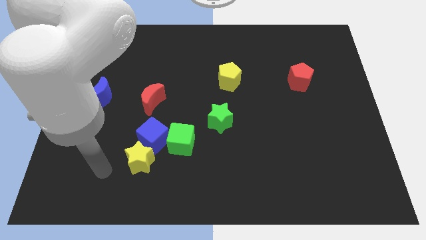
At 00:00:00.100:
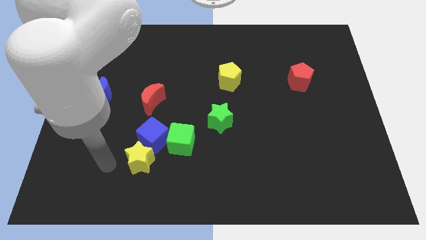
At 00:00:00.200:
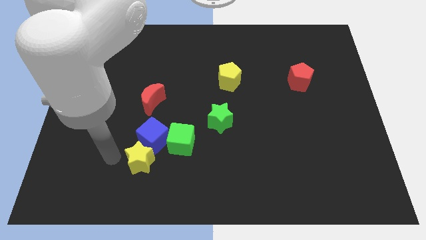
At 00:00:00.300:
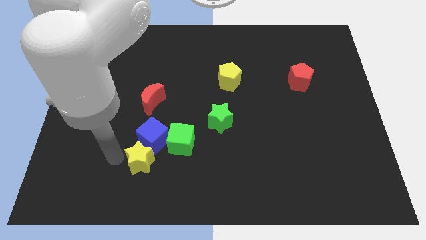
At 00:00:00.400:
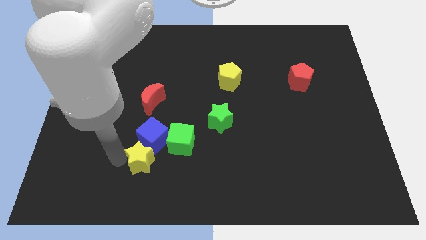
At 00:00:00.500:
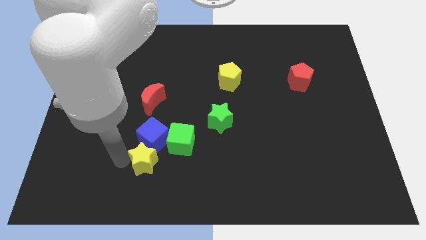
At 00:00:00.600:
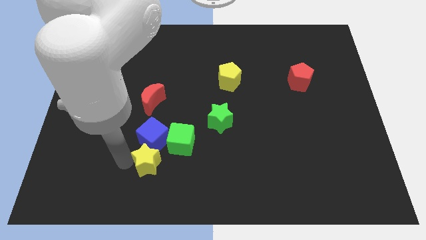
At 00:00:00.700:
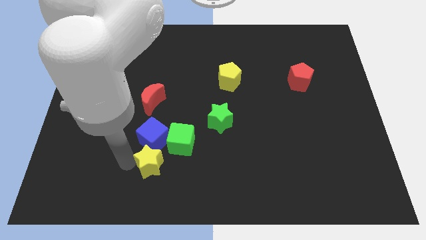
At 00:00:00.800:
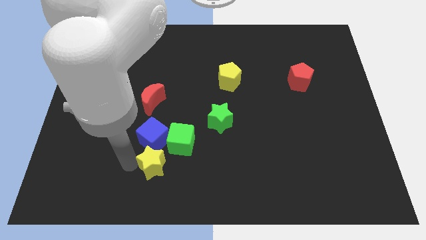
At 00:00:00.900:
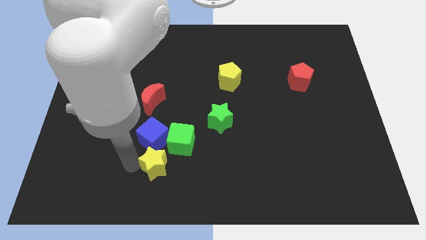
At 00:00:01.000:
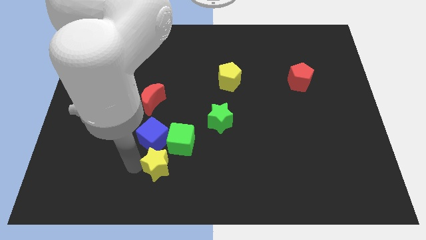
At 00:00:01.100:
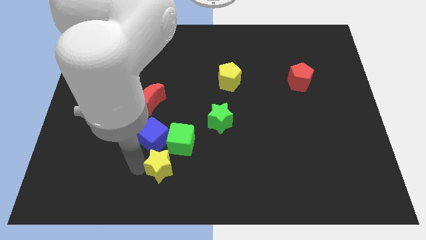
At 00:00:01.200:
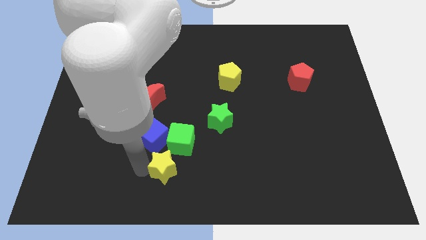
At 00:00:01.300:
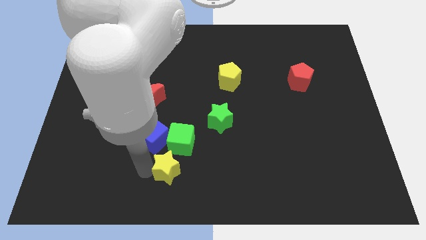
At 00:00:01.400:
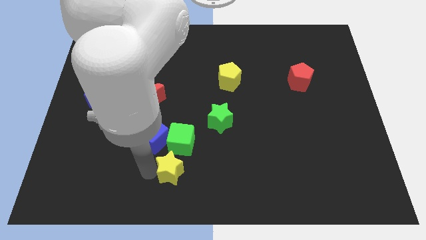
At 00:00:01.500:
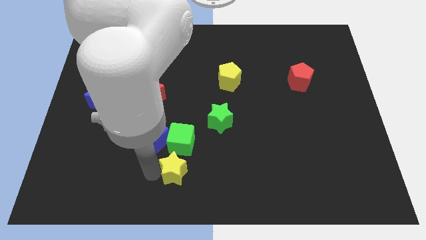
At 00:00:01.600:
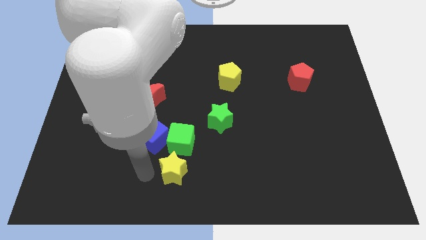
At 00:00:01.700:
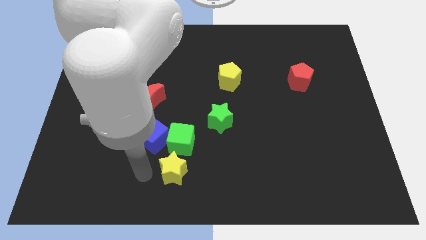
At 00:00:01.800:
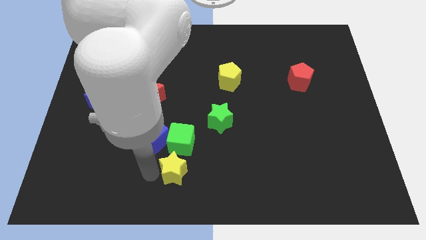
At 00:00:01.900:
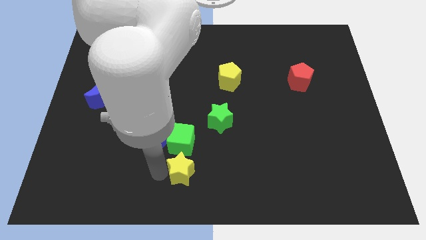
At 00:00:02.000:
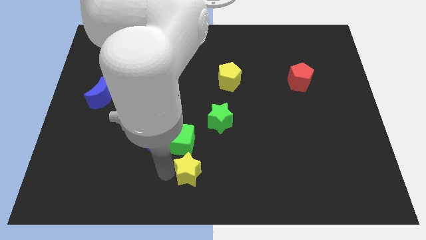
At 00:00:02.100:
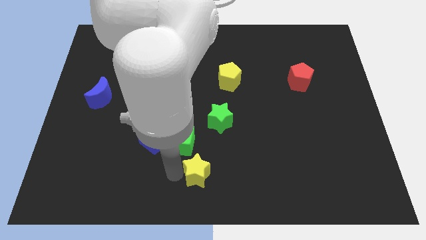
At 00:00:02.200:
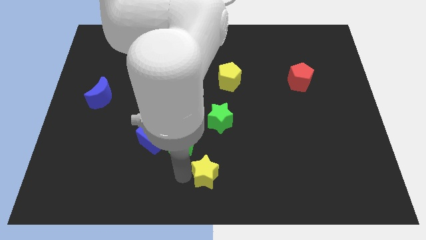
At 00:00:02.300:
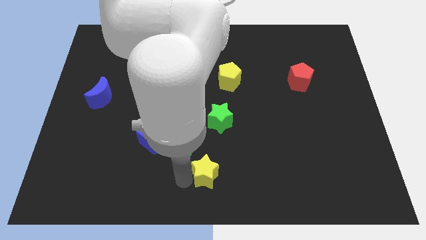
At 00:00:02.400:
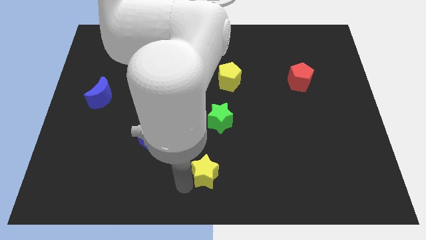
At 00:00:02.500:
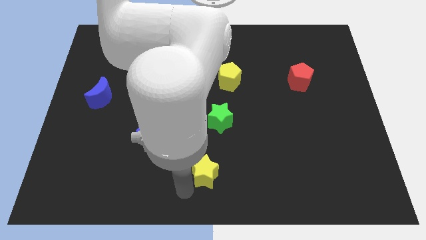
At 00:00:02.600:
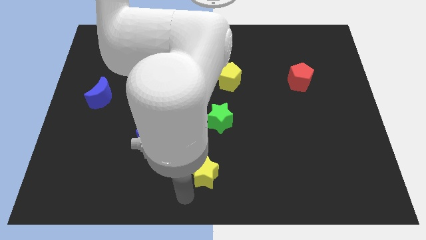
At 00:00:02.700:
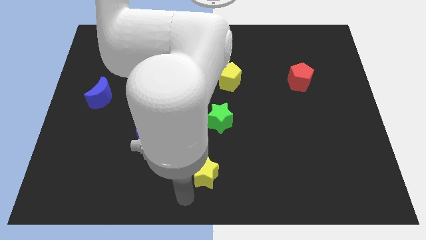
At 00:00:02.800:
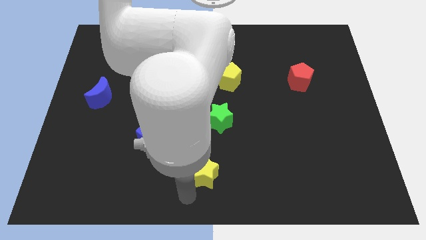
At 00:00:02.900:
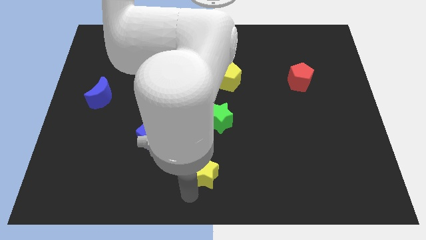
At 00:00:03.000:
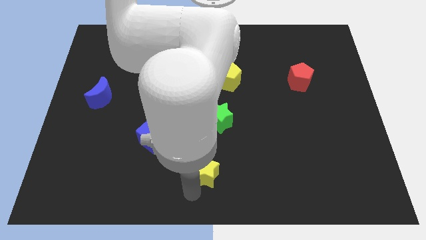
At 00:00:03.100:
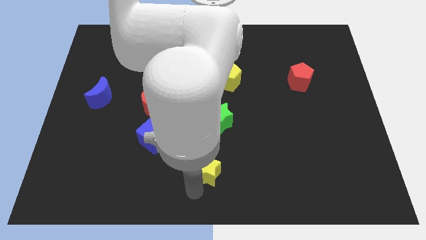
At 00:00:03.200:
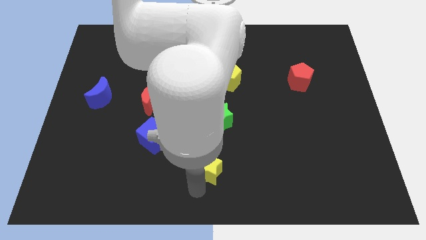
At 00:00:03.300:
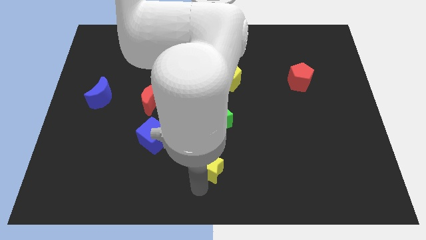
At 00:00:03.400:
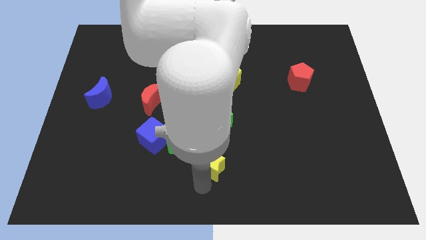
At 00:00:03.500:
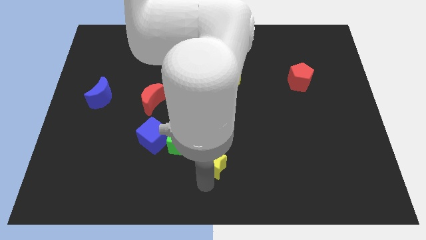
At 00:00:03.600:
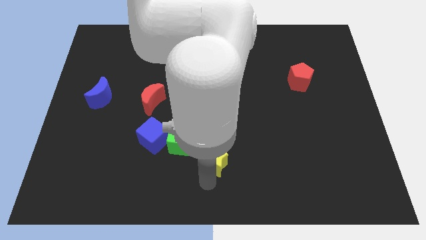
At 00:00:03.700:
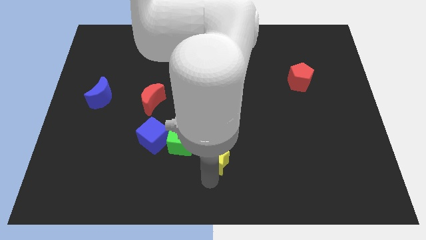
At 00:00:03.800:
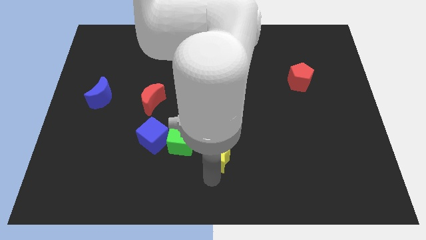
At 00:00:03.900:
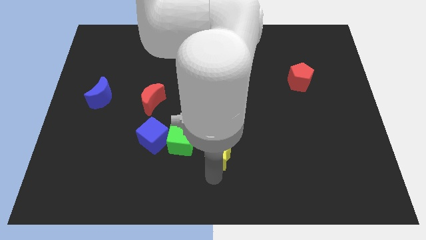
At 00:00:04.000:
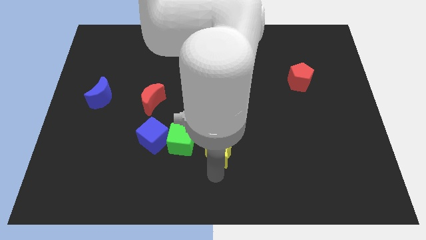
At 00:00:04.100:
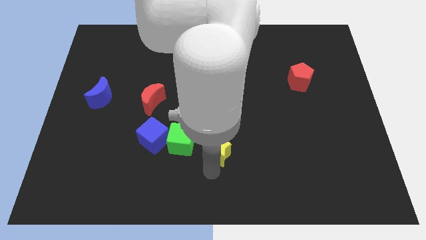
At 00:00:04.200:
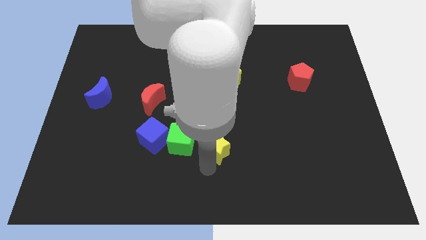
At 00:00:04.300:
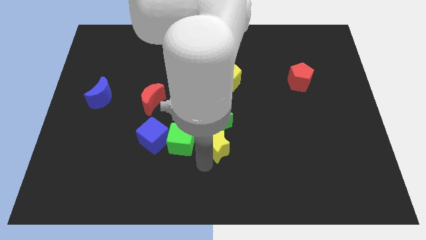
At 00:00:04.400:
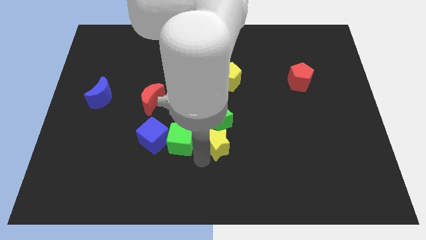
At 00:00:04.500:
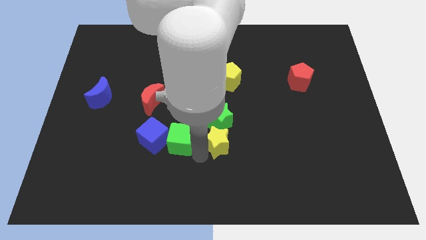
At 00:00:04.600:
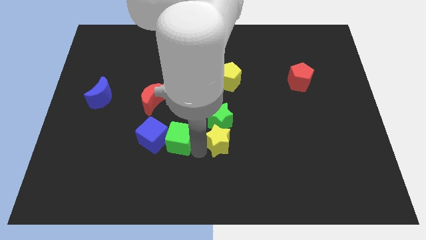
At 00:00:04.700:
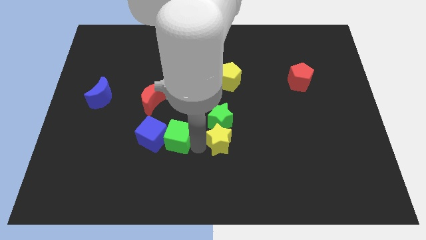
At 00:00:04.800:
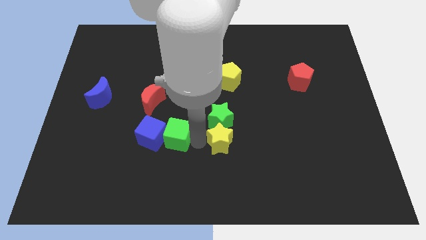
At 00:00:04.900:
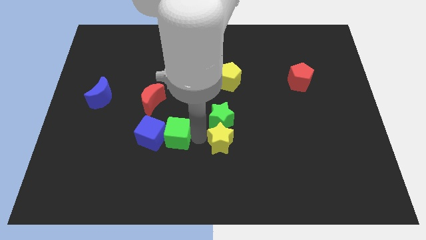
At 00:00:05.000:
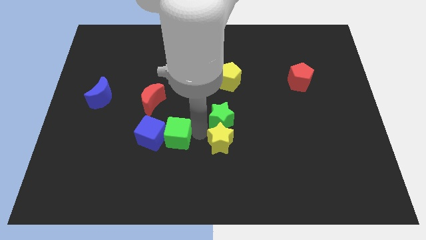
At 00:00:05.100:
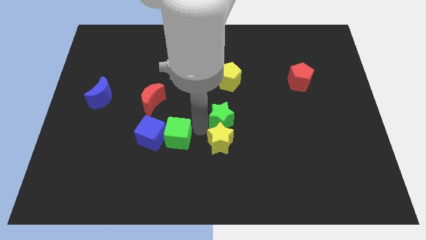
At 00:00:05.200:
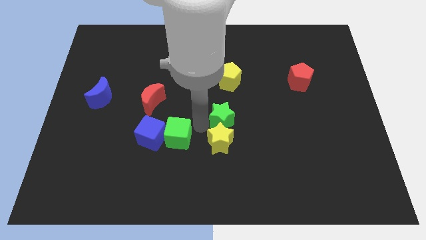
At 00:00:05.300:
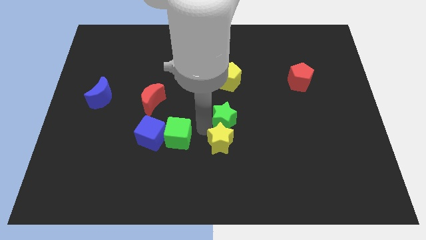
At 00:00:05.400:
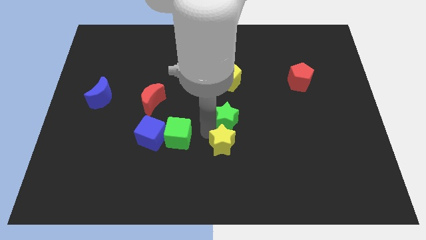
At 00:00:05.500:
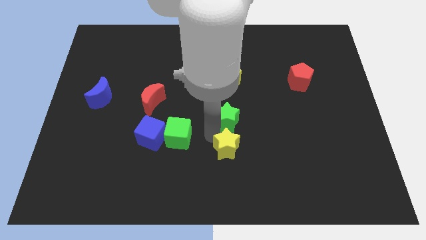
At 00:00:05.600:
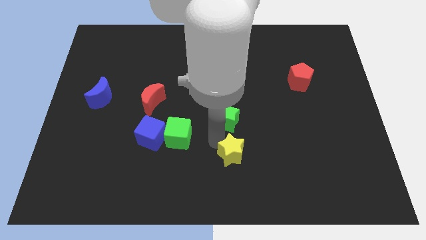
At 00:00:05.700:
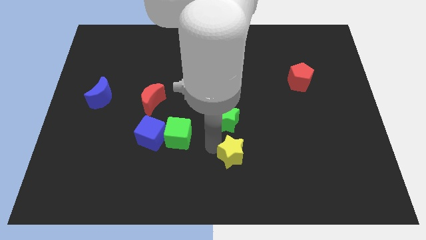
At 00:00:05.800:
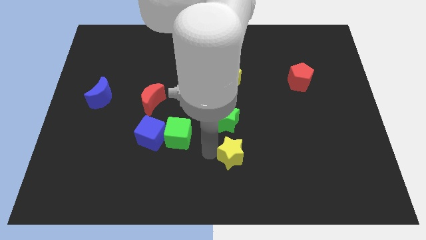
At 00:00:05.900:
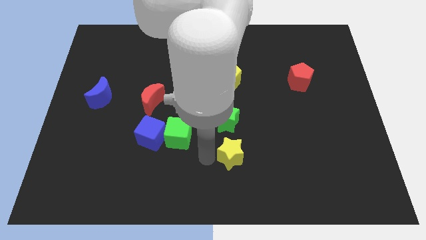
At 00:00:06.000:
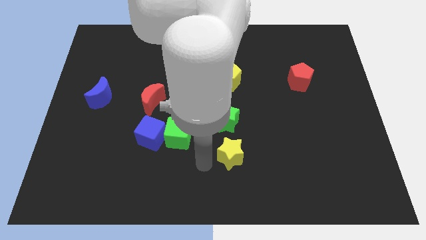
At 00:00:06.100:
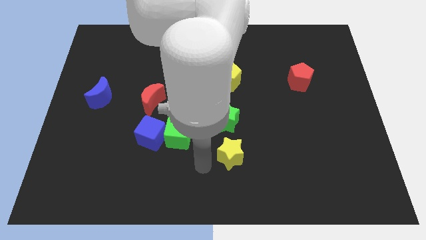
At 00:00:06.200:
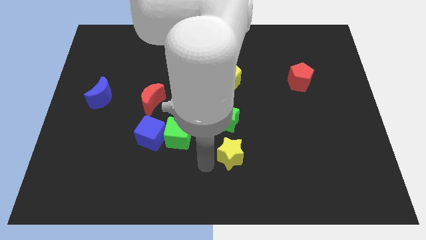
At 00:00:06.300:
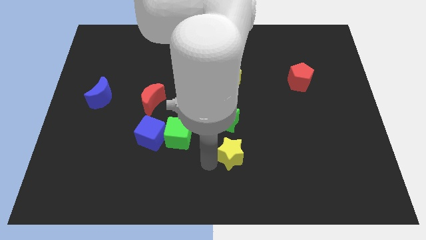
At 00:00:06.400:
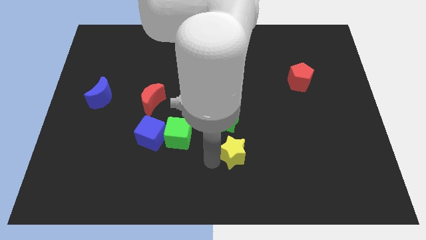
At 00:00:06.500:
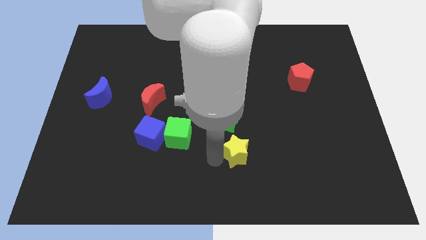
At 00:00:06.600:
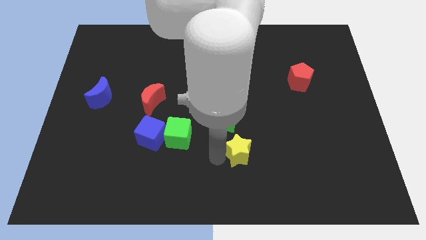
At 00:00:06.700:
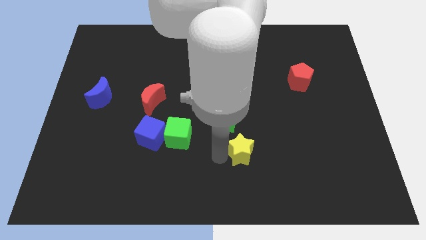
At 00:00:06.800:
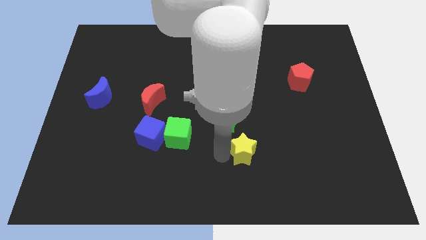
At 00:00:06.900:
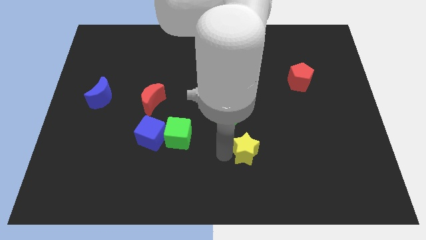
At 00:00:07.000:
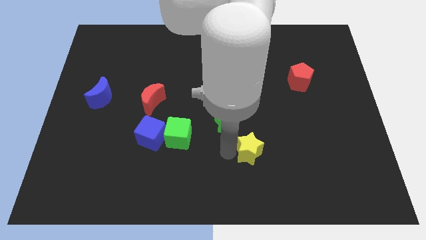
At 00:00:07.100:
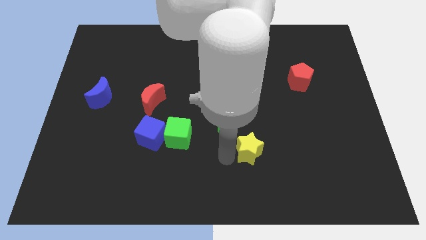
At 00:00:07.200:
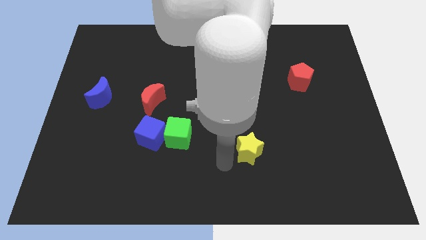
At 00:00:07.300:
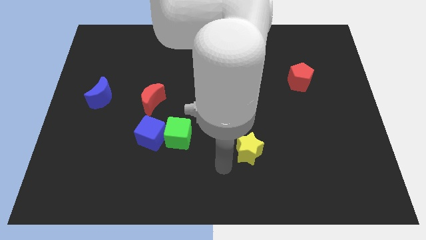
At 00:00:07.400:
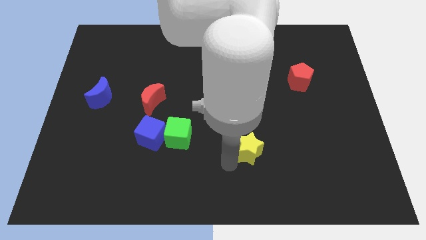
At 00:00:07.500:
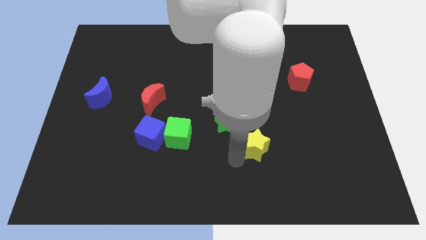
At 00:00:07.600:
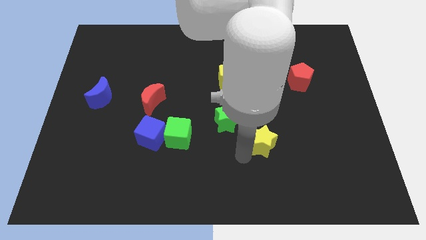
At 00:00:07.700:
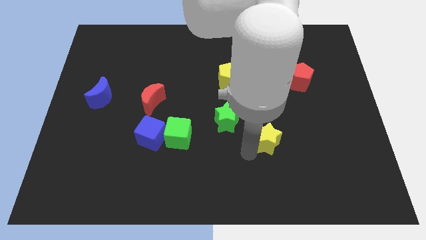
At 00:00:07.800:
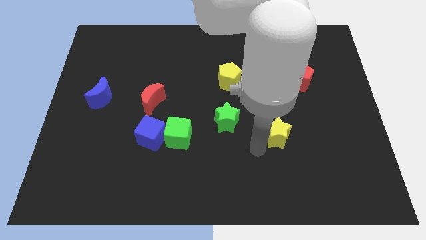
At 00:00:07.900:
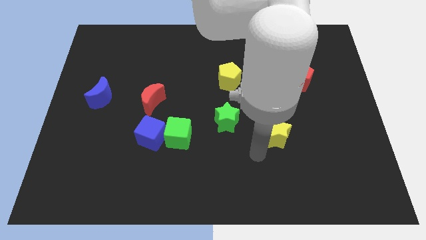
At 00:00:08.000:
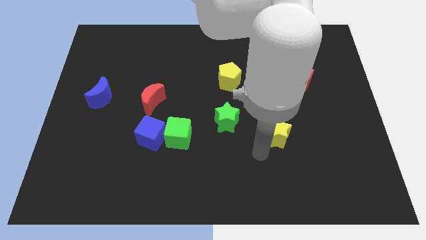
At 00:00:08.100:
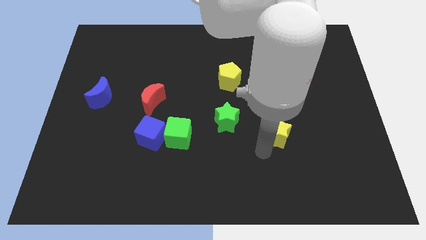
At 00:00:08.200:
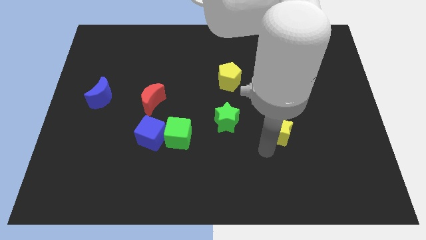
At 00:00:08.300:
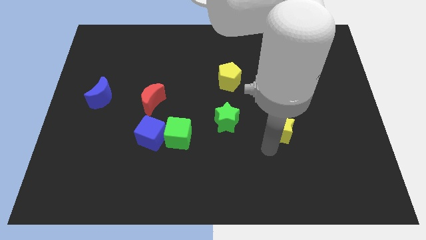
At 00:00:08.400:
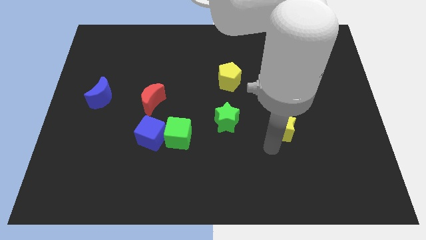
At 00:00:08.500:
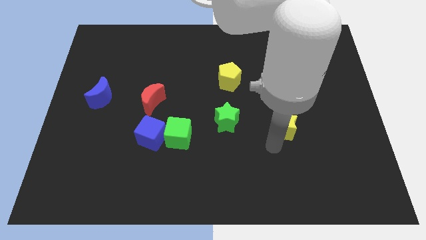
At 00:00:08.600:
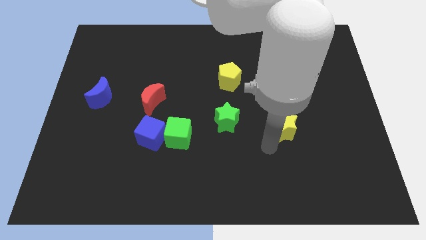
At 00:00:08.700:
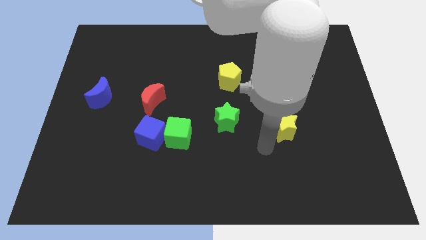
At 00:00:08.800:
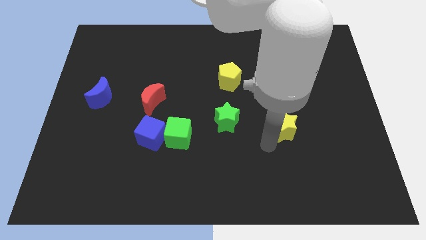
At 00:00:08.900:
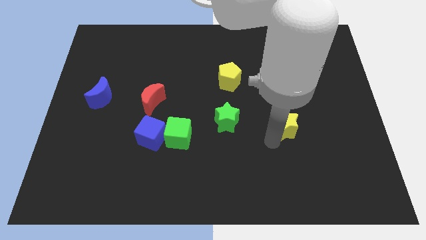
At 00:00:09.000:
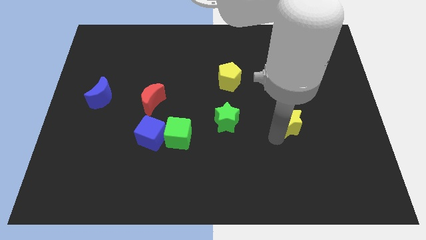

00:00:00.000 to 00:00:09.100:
move the yellow star to the bottom side of the red pentagon
